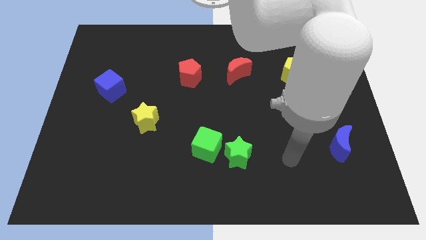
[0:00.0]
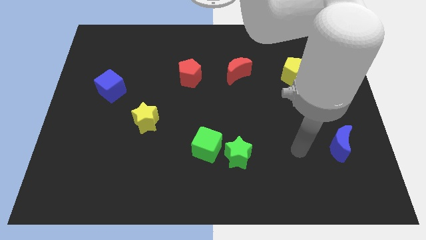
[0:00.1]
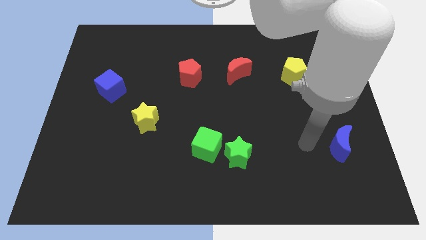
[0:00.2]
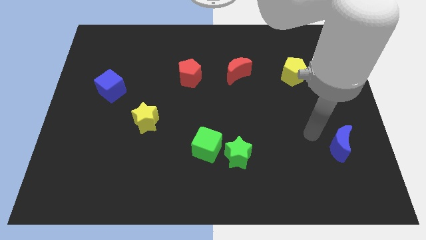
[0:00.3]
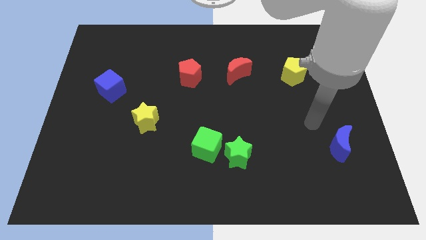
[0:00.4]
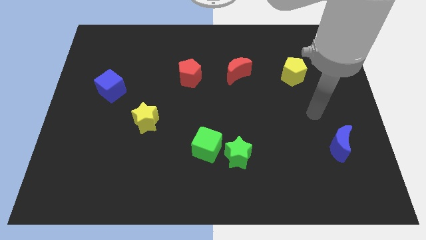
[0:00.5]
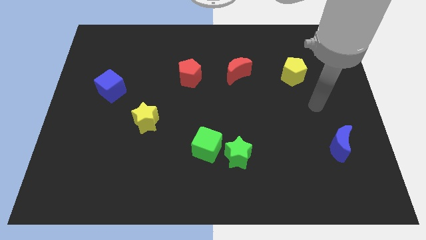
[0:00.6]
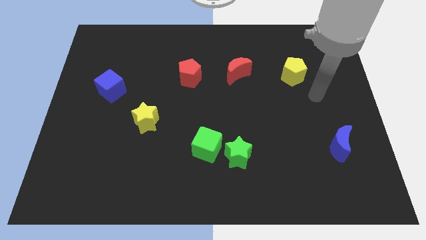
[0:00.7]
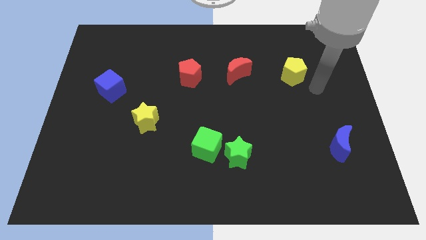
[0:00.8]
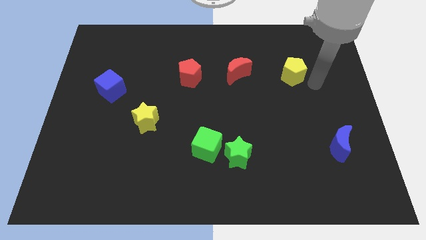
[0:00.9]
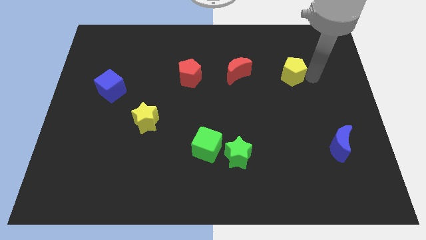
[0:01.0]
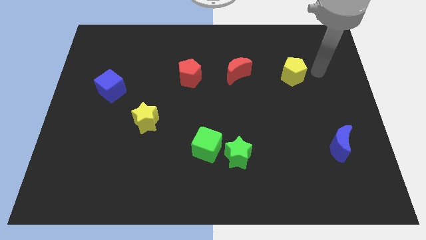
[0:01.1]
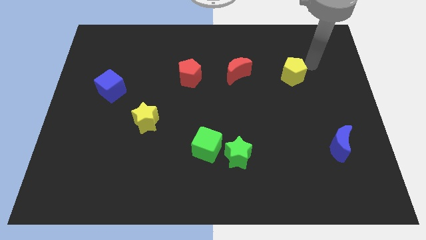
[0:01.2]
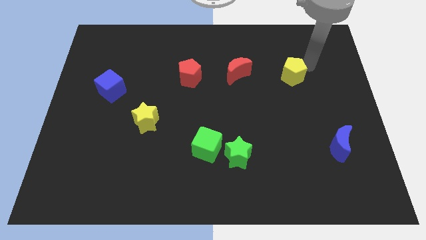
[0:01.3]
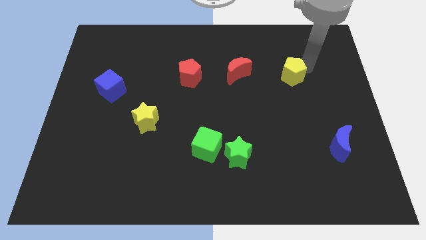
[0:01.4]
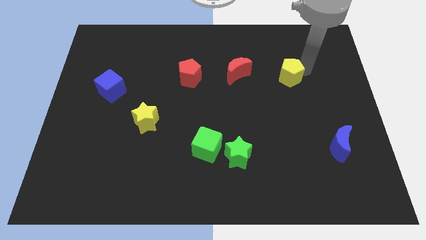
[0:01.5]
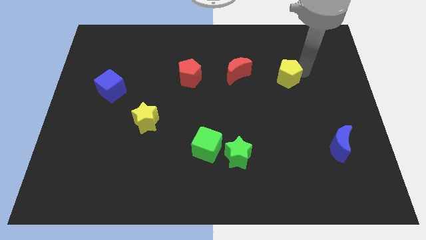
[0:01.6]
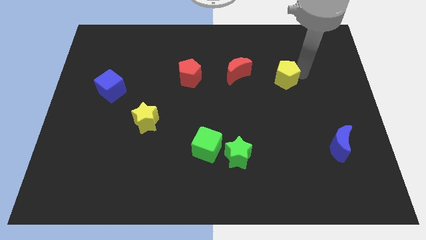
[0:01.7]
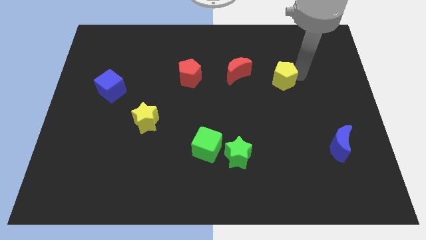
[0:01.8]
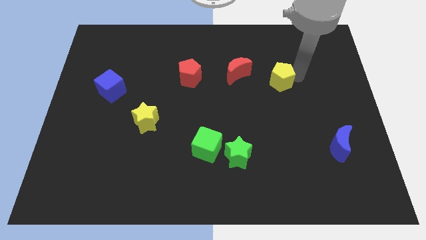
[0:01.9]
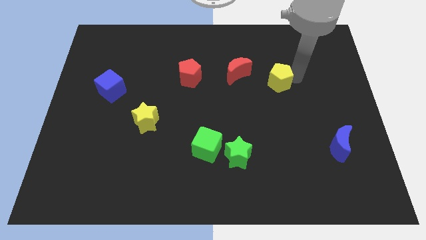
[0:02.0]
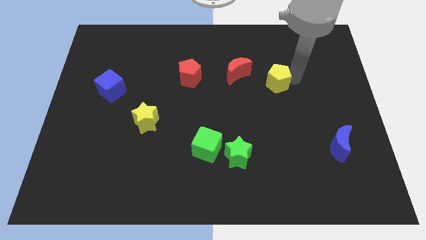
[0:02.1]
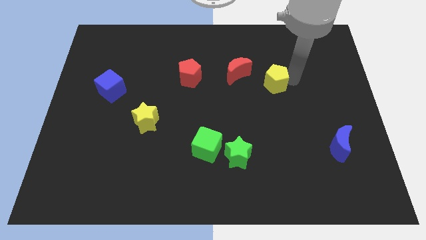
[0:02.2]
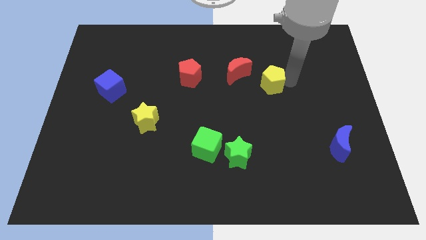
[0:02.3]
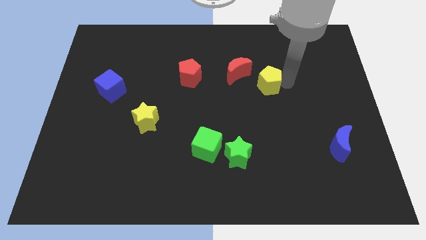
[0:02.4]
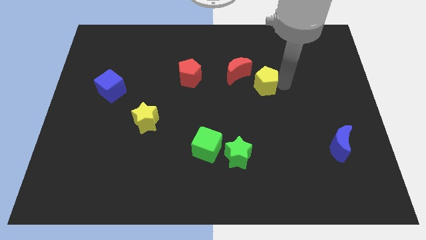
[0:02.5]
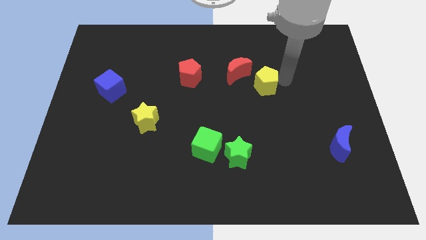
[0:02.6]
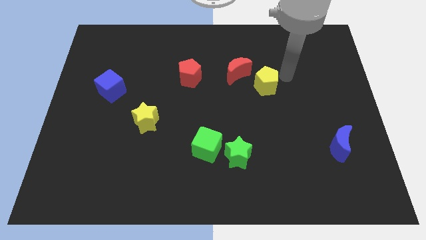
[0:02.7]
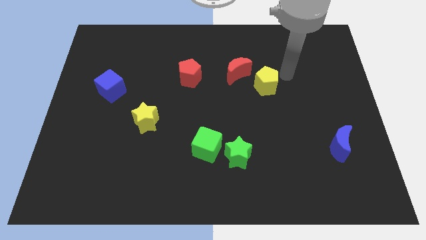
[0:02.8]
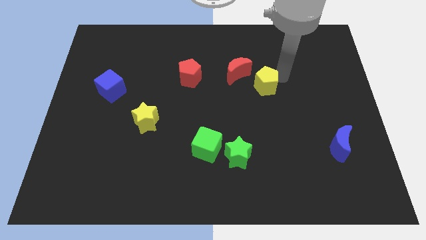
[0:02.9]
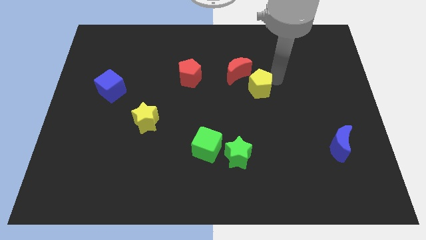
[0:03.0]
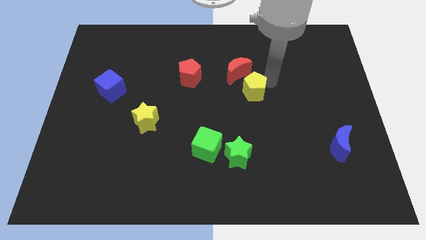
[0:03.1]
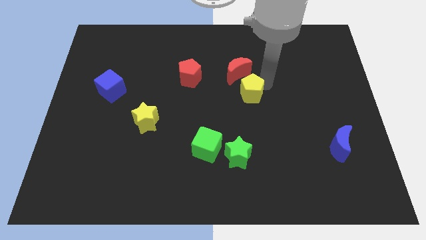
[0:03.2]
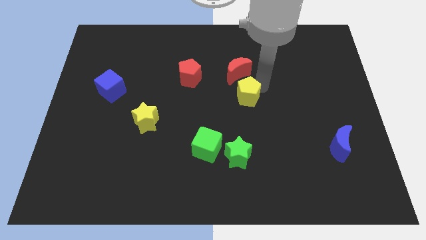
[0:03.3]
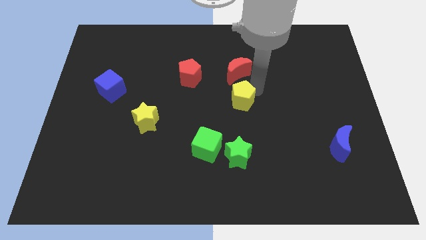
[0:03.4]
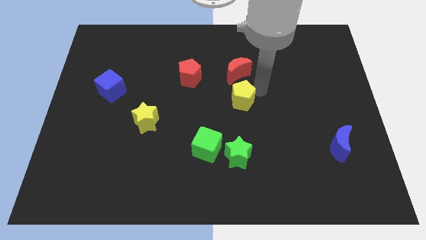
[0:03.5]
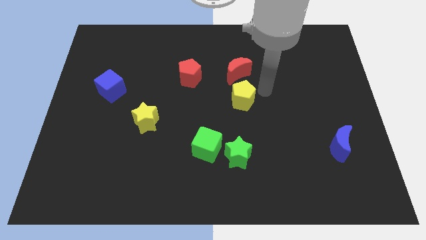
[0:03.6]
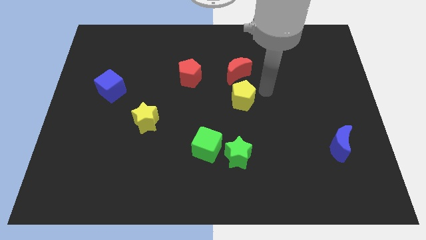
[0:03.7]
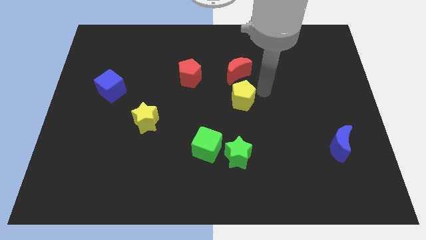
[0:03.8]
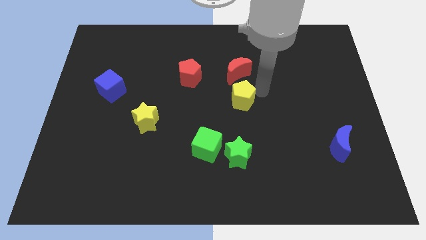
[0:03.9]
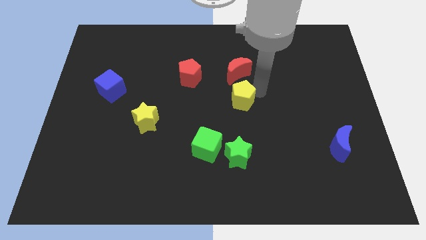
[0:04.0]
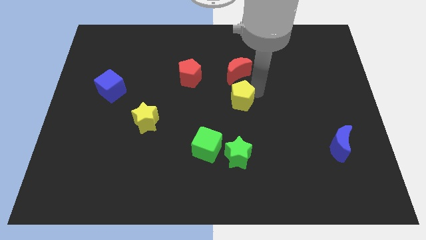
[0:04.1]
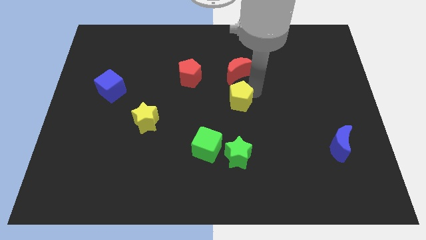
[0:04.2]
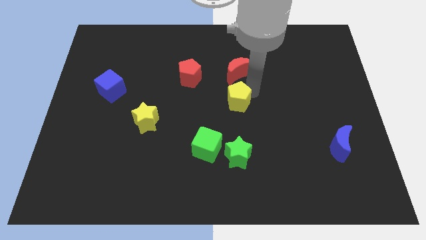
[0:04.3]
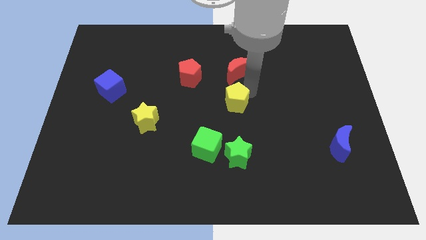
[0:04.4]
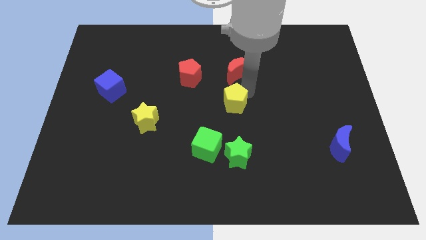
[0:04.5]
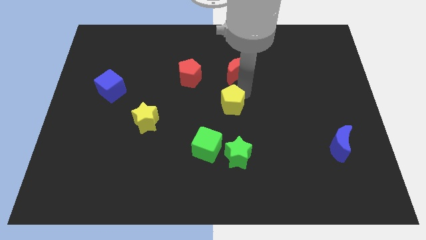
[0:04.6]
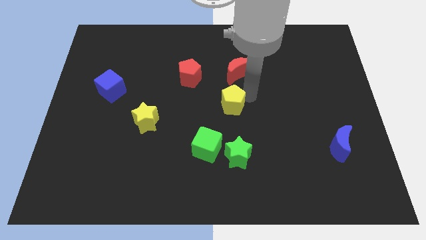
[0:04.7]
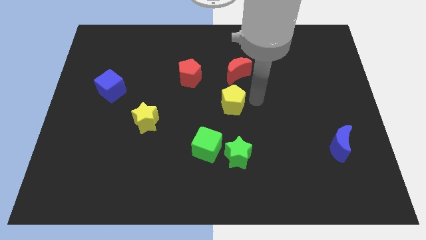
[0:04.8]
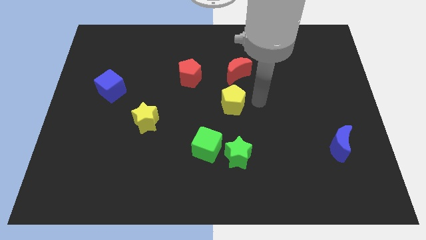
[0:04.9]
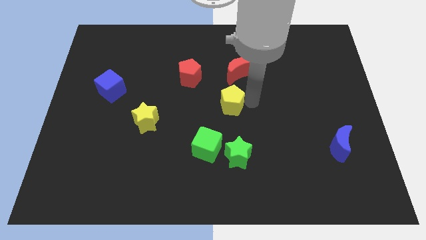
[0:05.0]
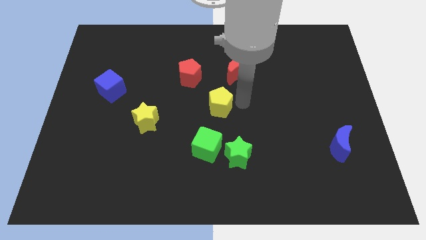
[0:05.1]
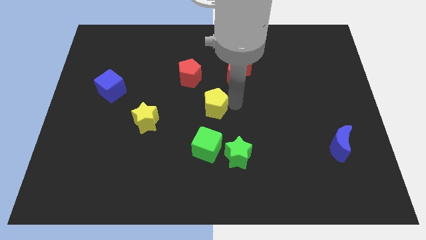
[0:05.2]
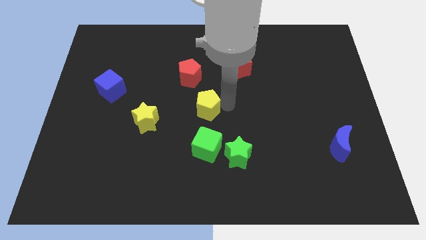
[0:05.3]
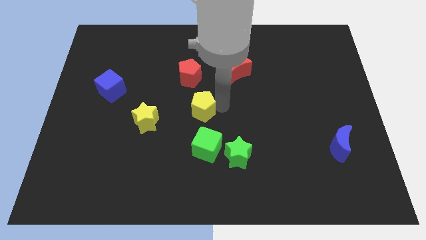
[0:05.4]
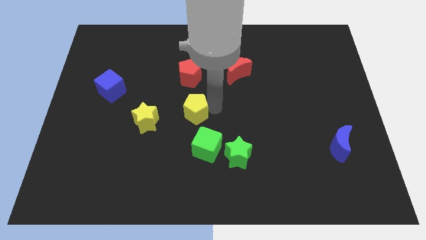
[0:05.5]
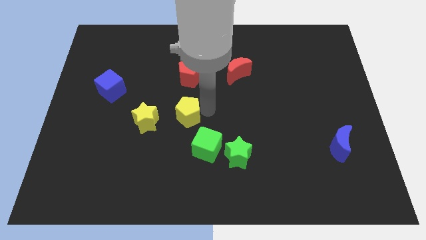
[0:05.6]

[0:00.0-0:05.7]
move the yellow pentagon to the top right side of the yellow star

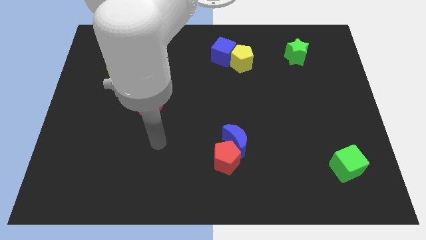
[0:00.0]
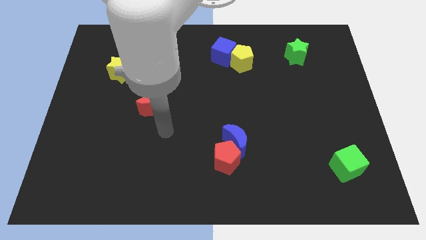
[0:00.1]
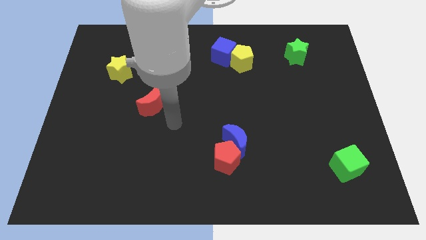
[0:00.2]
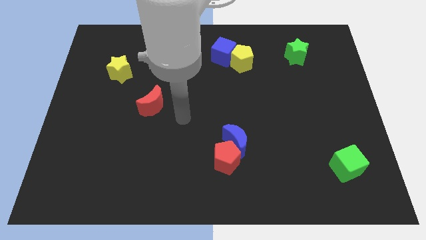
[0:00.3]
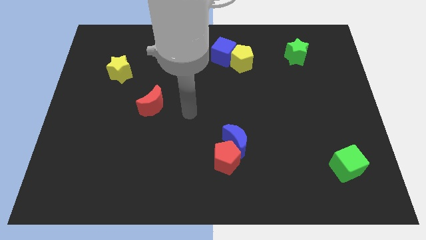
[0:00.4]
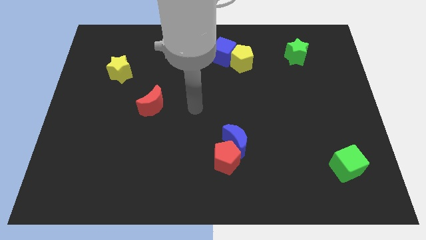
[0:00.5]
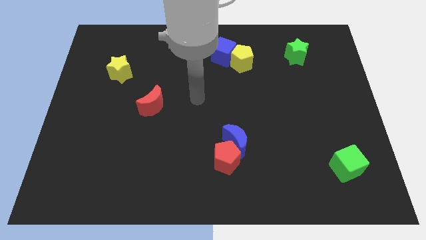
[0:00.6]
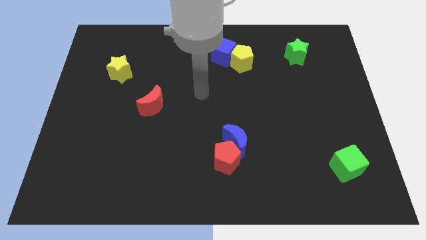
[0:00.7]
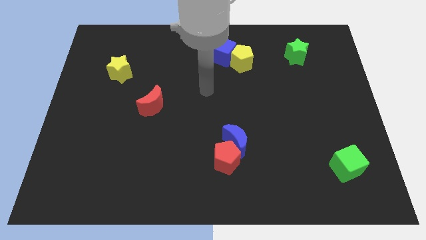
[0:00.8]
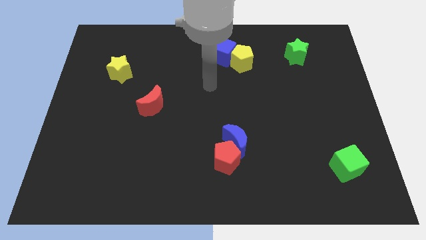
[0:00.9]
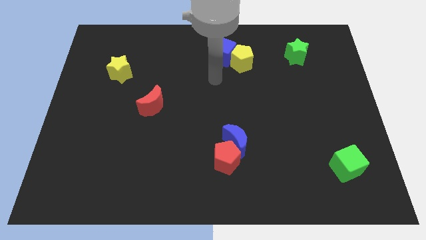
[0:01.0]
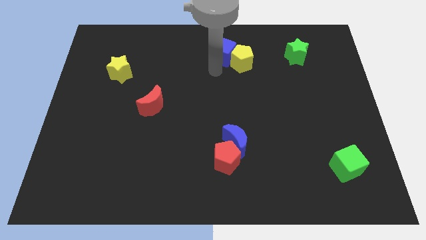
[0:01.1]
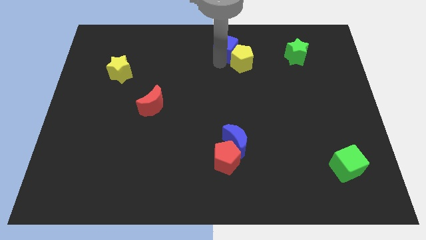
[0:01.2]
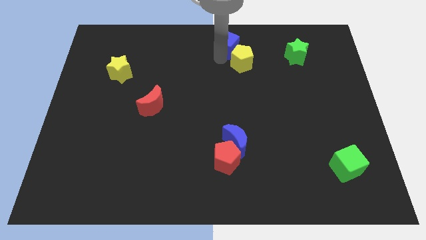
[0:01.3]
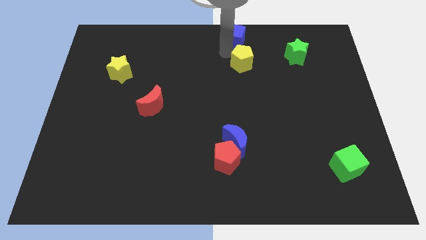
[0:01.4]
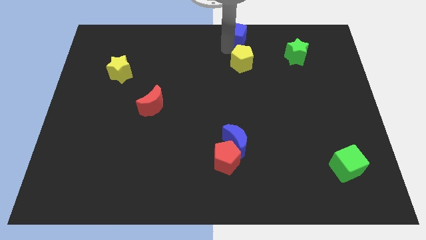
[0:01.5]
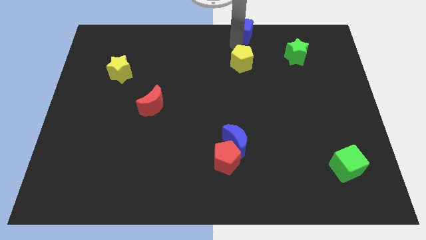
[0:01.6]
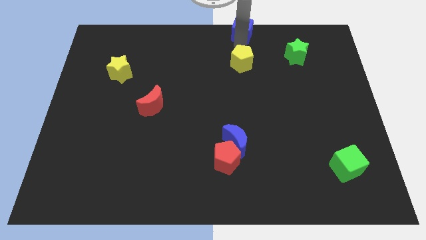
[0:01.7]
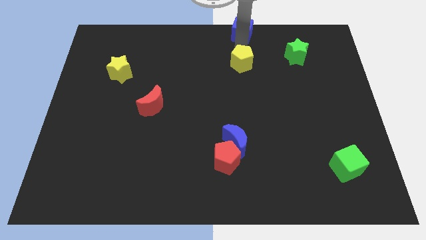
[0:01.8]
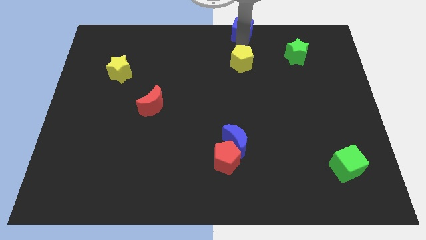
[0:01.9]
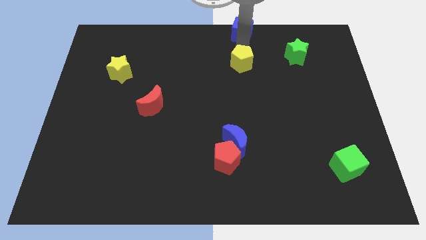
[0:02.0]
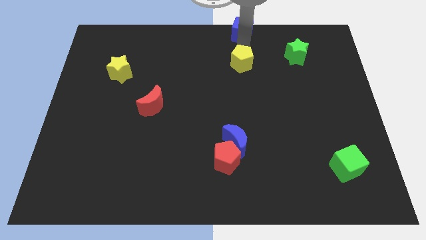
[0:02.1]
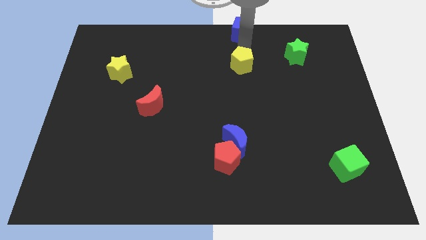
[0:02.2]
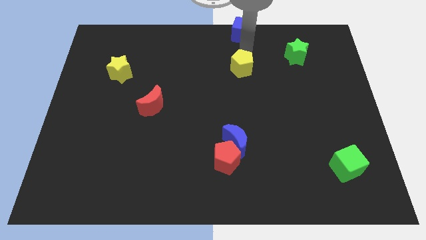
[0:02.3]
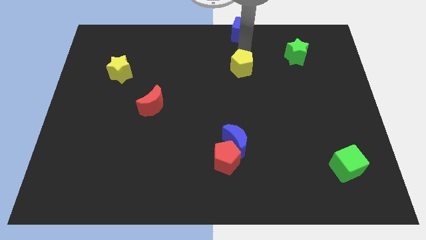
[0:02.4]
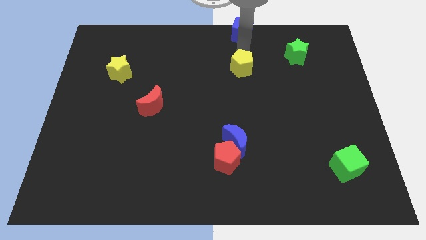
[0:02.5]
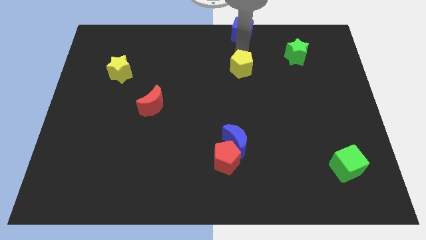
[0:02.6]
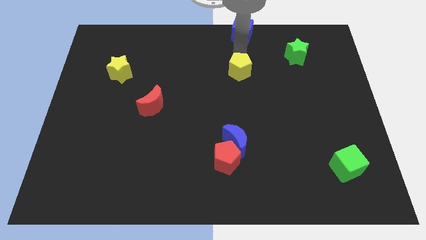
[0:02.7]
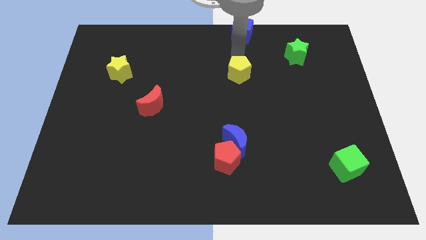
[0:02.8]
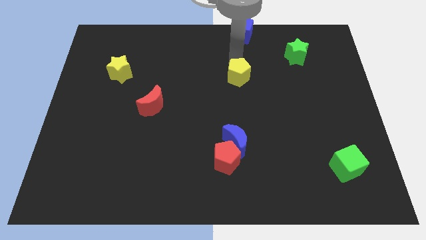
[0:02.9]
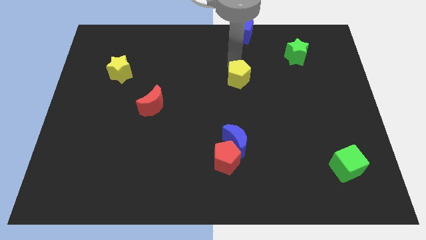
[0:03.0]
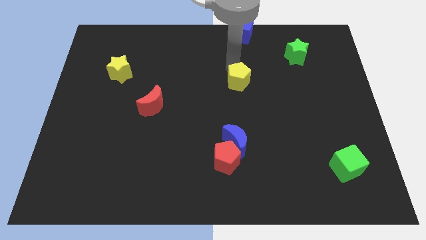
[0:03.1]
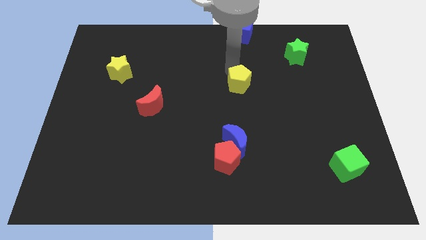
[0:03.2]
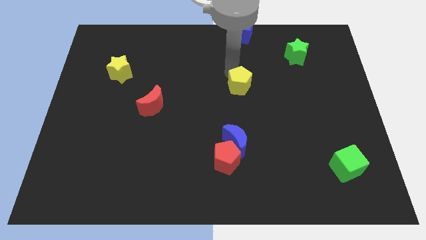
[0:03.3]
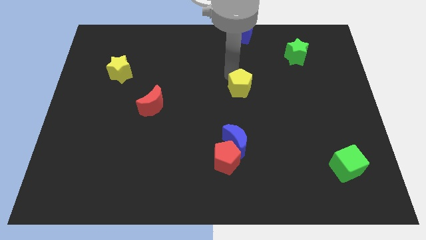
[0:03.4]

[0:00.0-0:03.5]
move the yellow pentagon to the top of the blue moon
